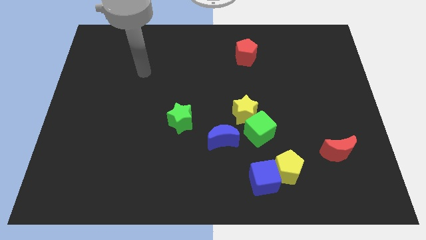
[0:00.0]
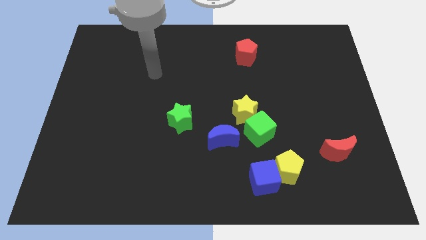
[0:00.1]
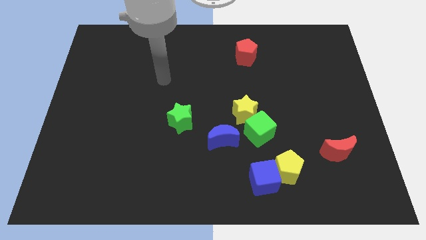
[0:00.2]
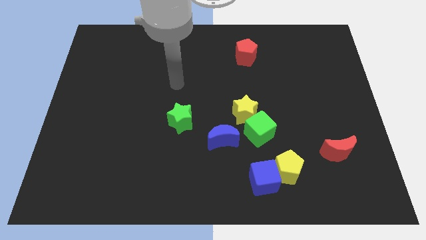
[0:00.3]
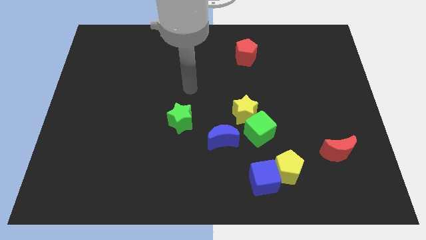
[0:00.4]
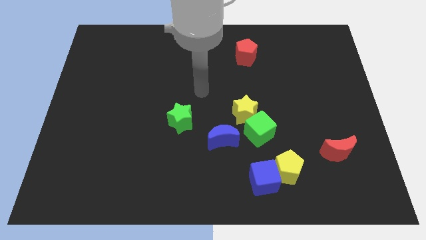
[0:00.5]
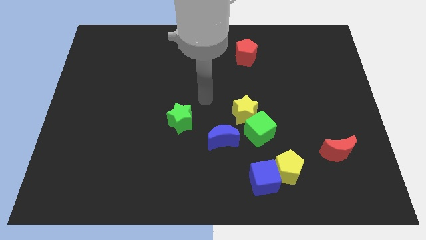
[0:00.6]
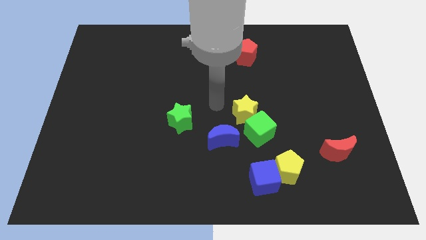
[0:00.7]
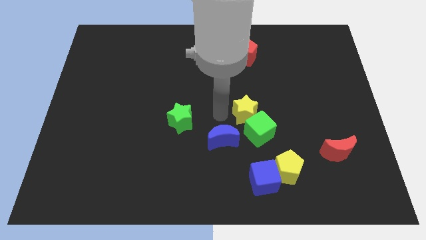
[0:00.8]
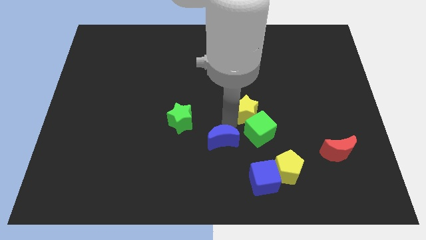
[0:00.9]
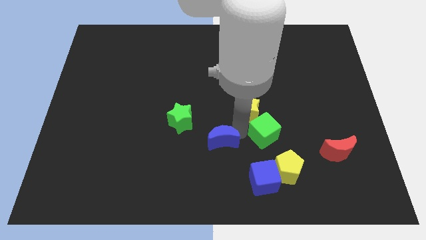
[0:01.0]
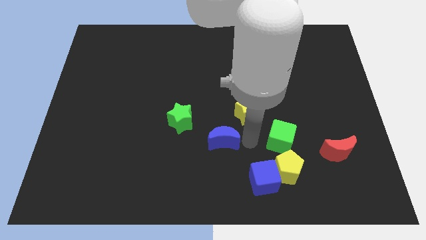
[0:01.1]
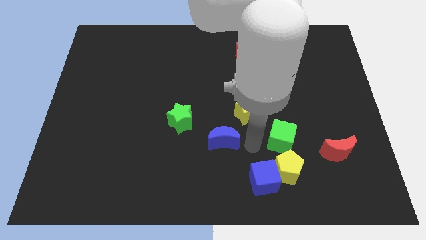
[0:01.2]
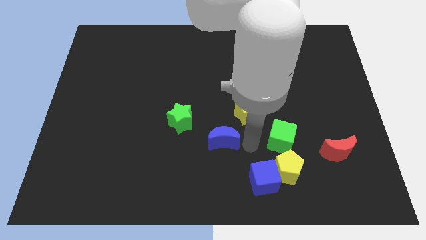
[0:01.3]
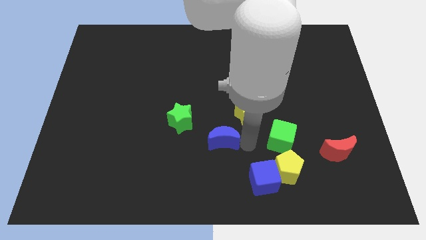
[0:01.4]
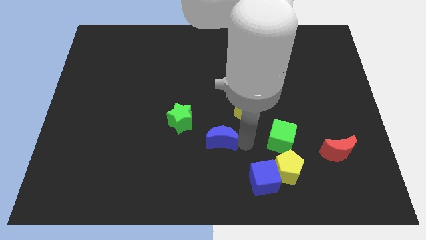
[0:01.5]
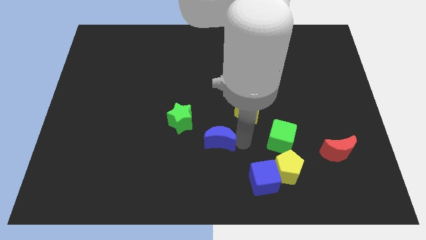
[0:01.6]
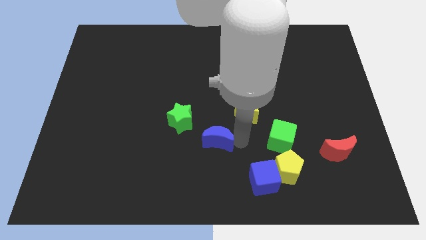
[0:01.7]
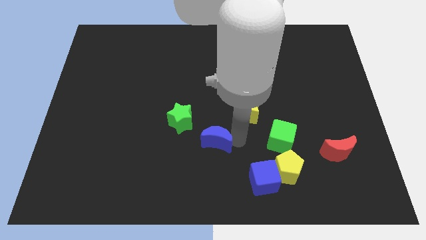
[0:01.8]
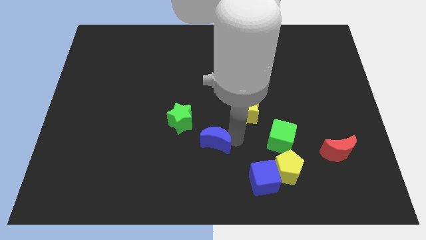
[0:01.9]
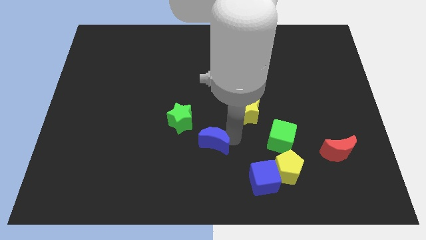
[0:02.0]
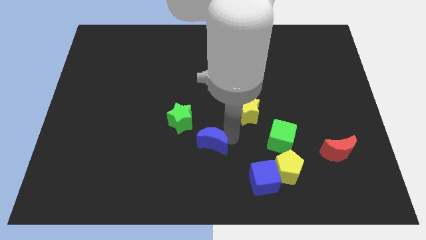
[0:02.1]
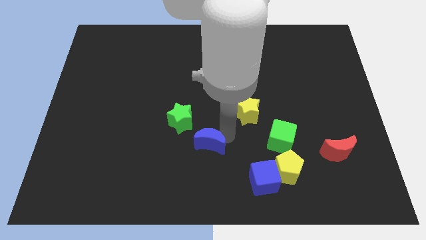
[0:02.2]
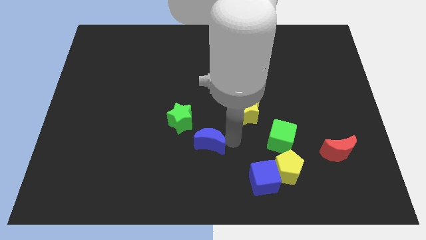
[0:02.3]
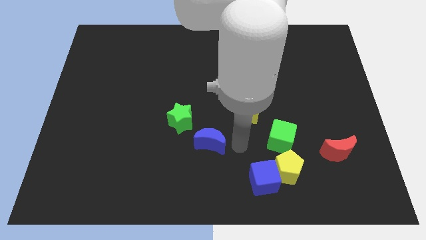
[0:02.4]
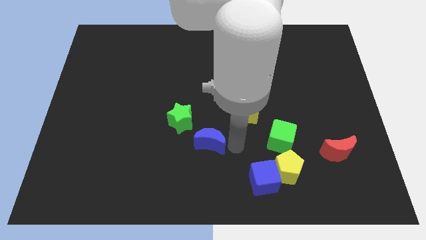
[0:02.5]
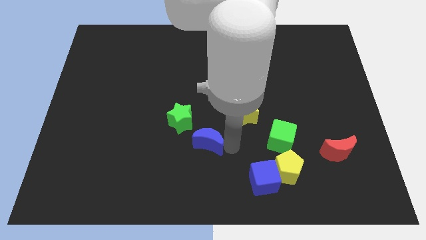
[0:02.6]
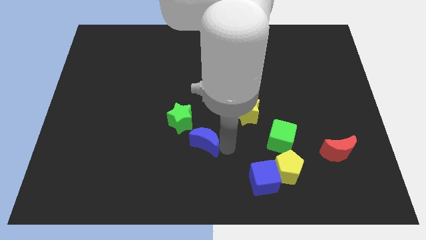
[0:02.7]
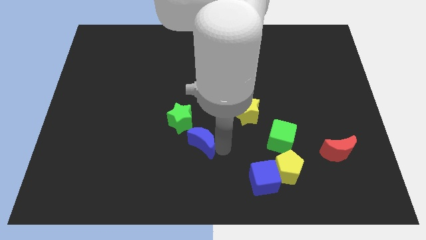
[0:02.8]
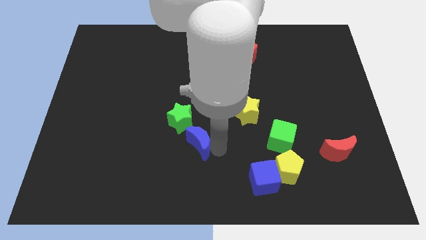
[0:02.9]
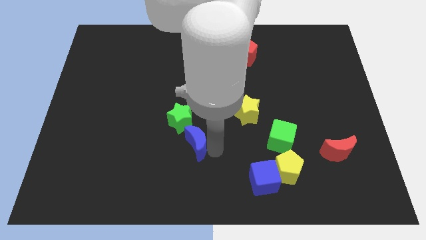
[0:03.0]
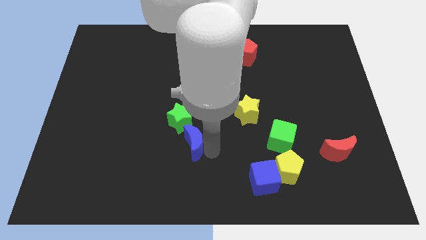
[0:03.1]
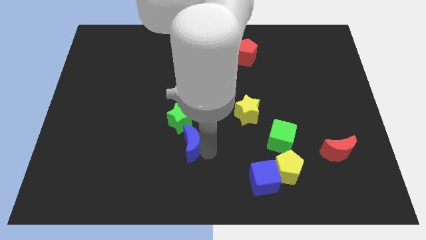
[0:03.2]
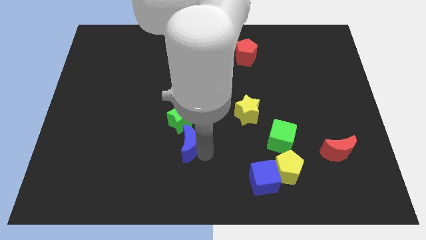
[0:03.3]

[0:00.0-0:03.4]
move the blue moon a little bit left

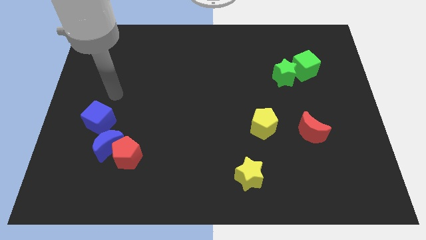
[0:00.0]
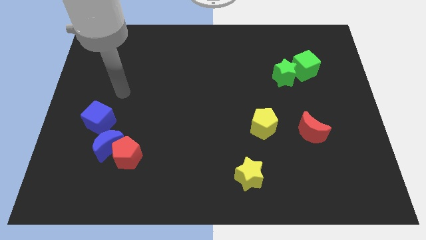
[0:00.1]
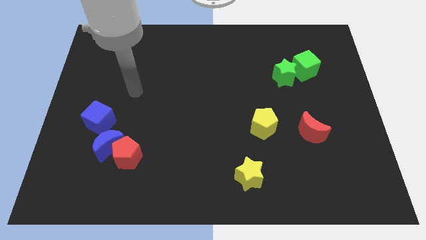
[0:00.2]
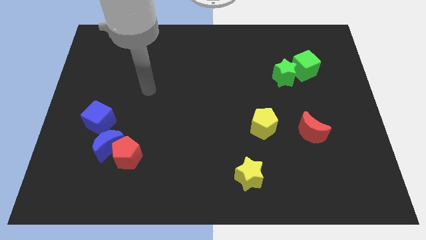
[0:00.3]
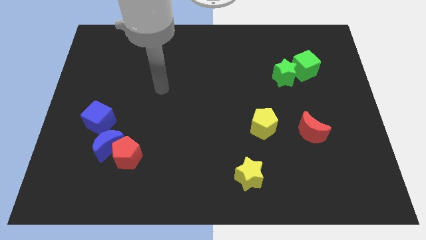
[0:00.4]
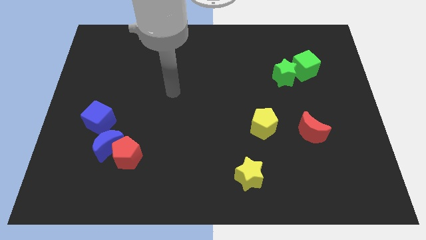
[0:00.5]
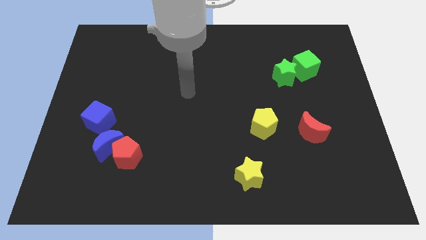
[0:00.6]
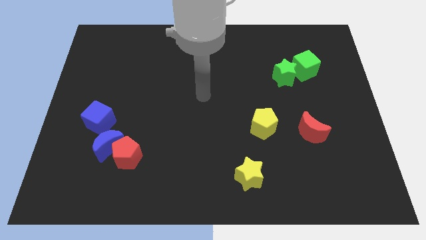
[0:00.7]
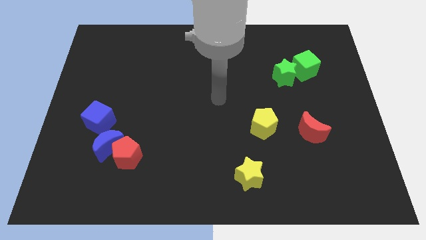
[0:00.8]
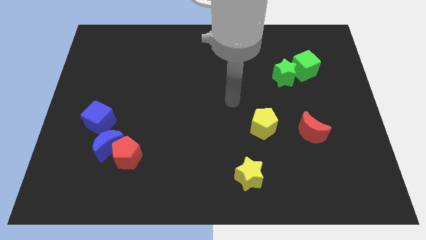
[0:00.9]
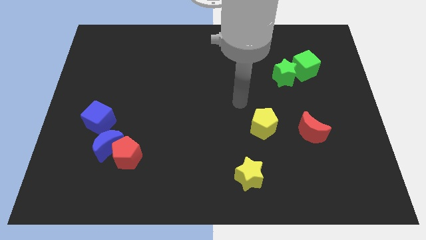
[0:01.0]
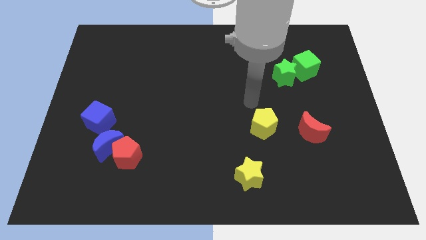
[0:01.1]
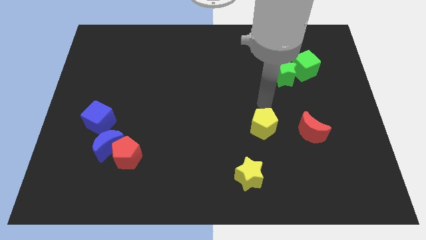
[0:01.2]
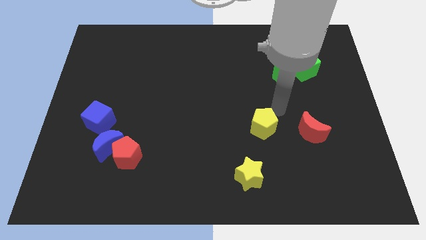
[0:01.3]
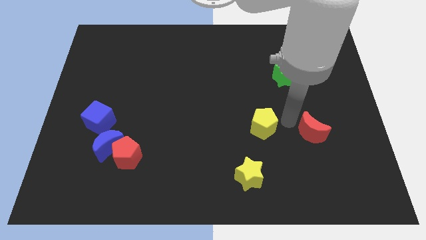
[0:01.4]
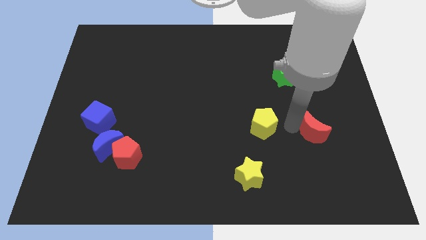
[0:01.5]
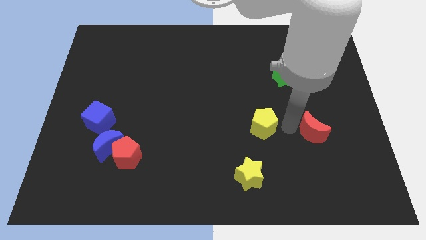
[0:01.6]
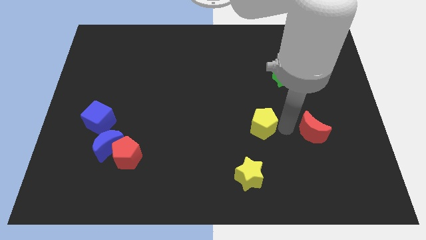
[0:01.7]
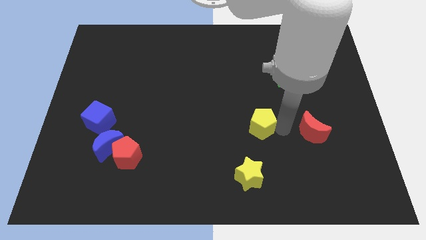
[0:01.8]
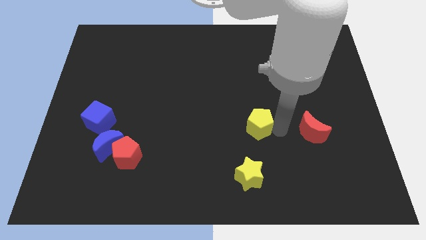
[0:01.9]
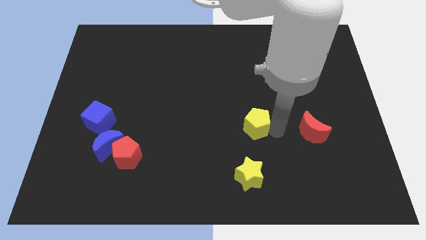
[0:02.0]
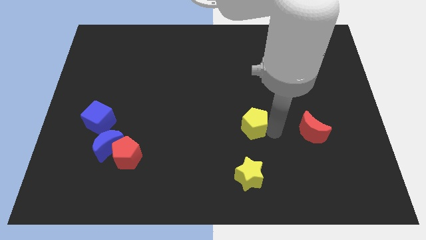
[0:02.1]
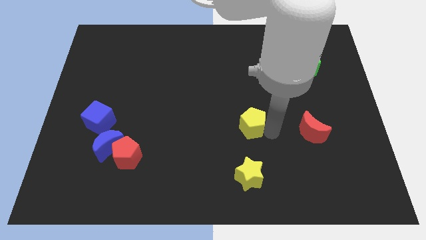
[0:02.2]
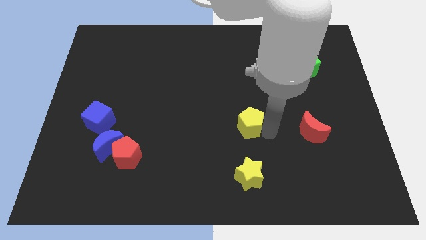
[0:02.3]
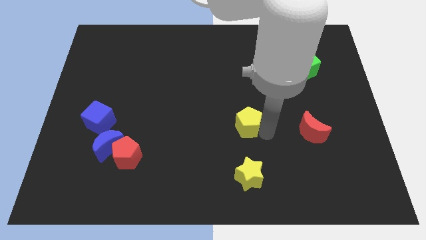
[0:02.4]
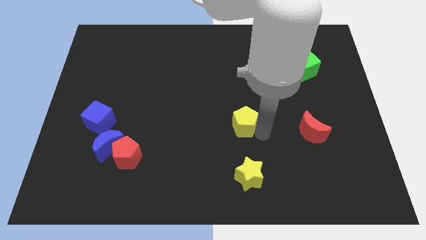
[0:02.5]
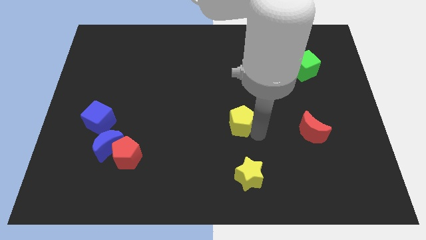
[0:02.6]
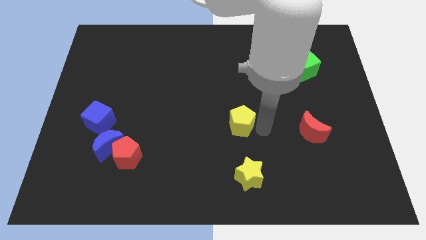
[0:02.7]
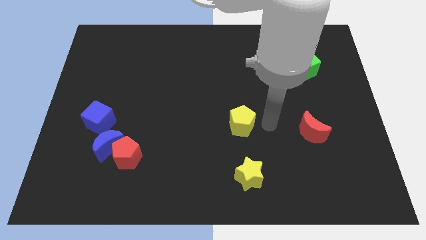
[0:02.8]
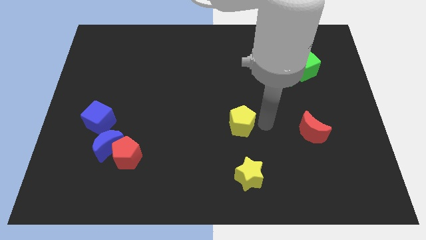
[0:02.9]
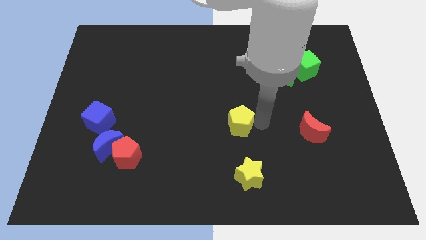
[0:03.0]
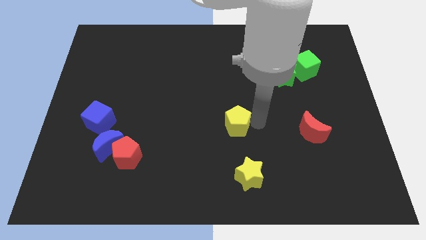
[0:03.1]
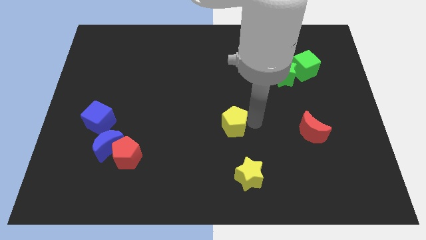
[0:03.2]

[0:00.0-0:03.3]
slide the yellow pentagon to the left a little bit

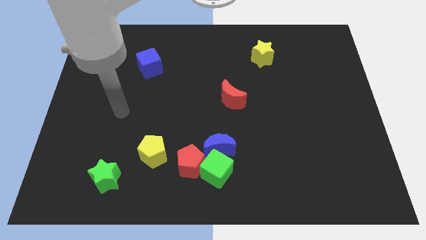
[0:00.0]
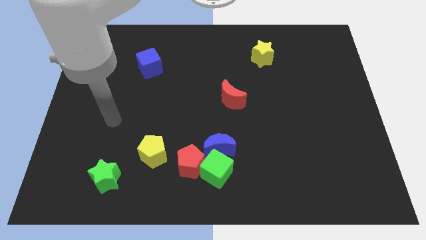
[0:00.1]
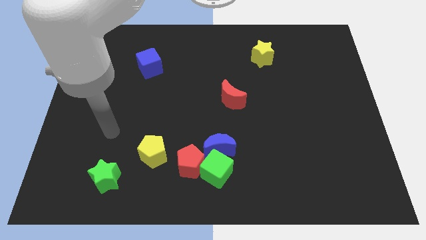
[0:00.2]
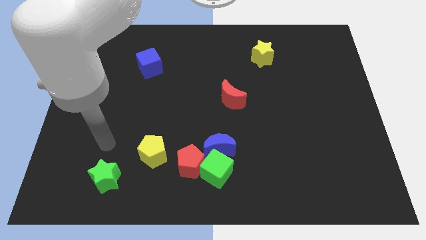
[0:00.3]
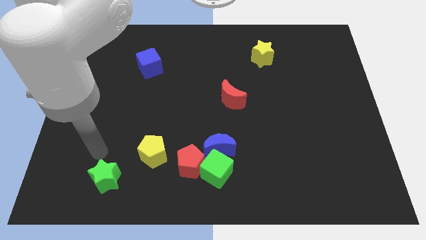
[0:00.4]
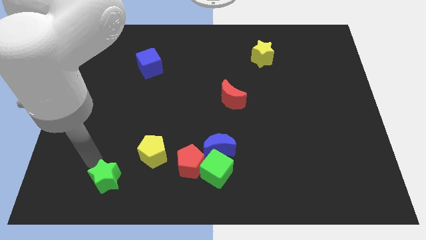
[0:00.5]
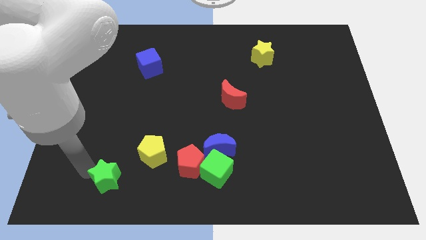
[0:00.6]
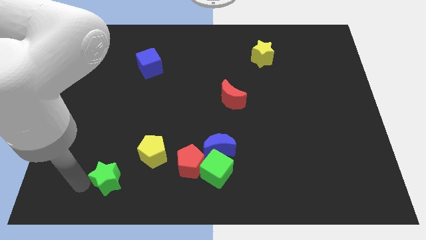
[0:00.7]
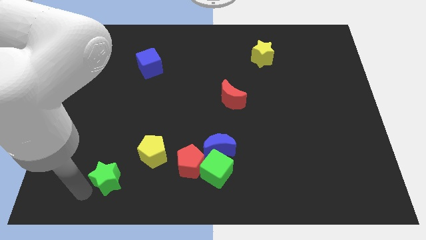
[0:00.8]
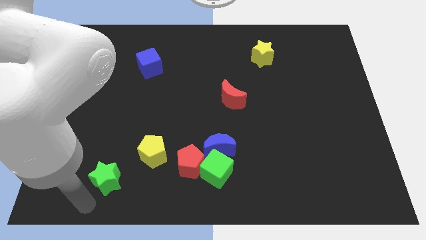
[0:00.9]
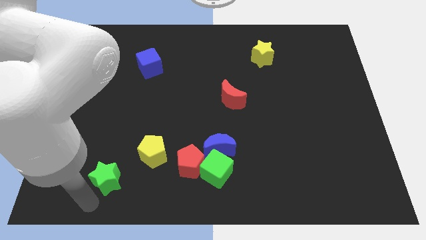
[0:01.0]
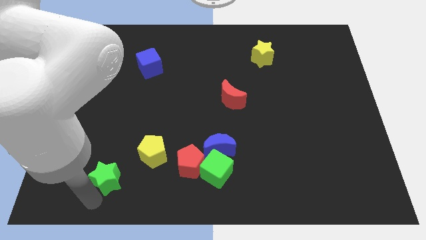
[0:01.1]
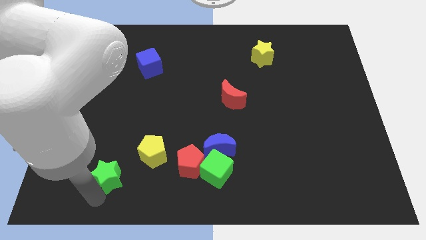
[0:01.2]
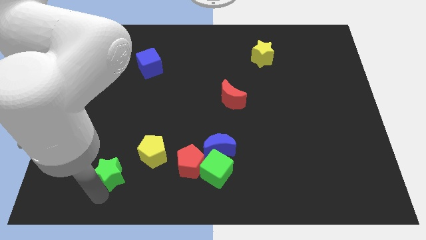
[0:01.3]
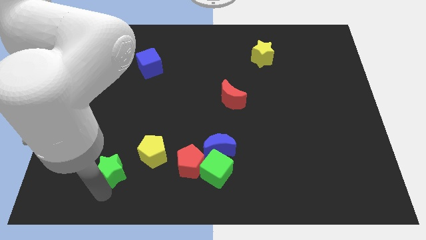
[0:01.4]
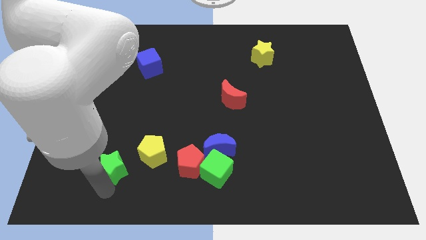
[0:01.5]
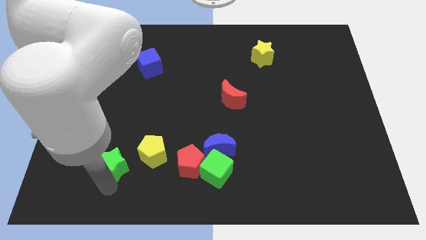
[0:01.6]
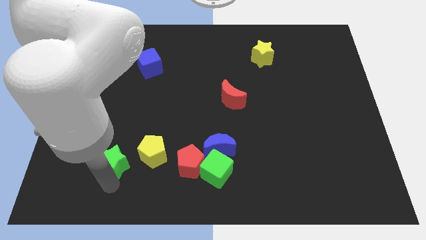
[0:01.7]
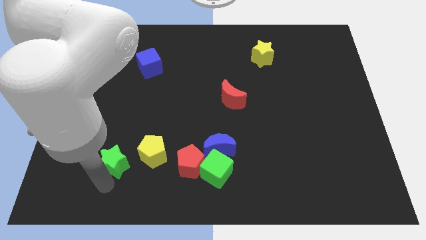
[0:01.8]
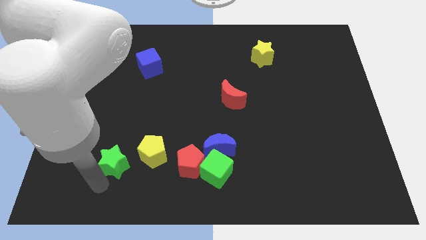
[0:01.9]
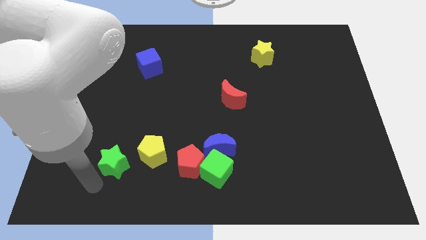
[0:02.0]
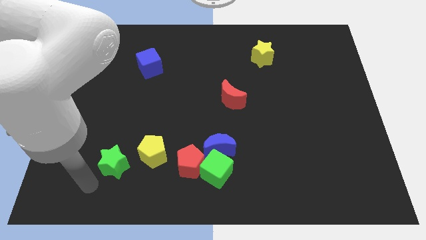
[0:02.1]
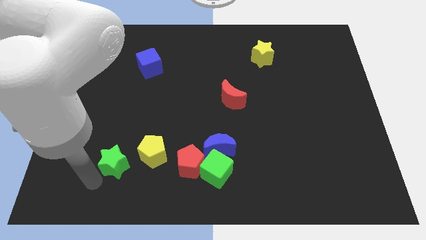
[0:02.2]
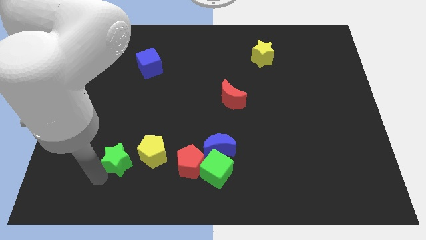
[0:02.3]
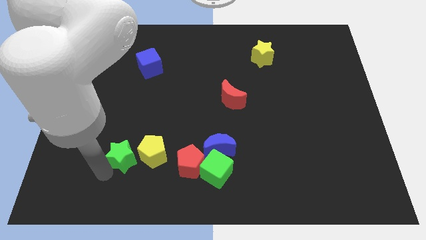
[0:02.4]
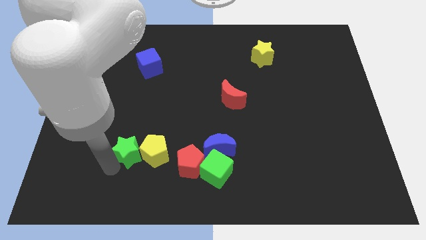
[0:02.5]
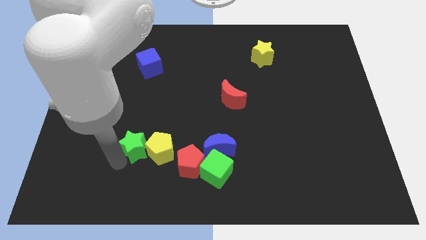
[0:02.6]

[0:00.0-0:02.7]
slide the green star upwards and then right a little bit
